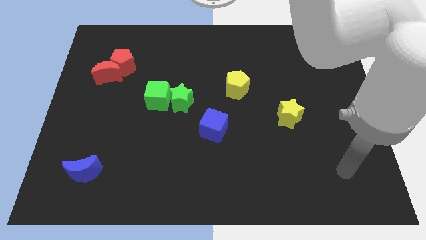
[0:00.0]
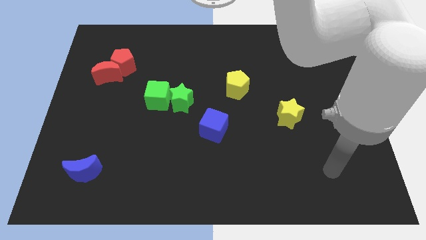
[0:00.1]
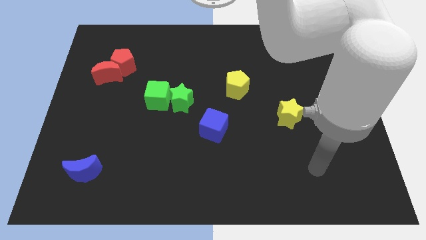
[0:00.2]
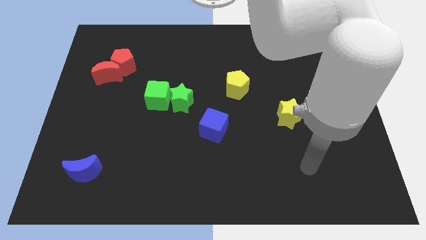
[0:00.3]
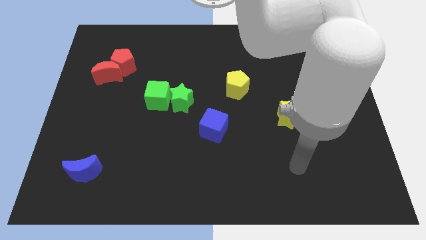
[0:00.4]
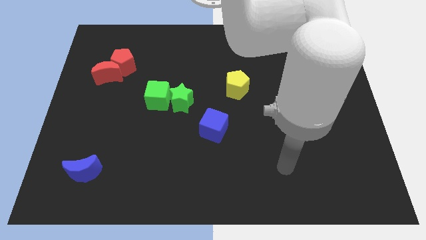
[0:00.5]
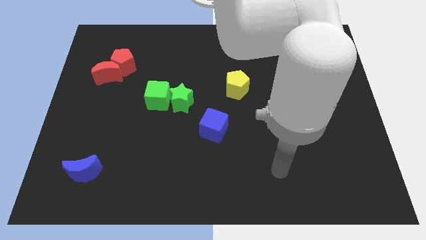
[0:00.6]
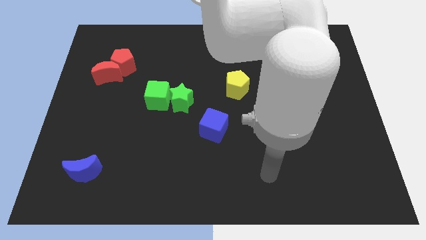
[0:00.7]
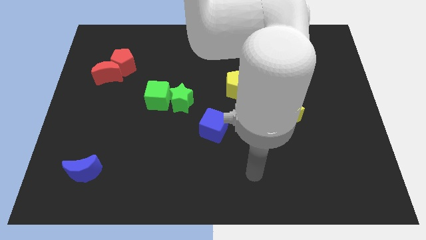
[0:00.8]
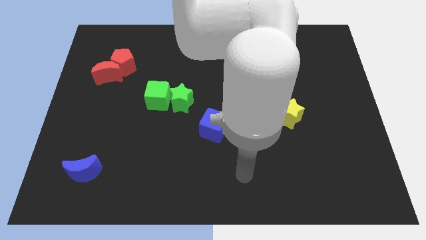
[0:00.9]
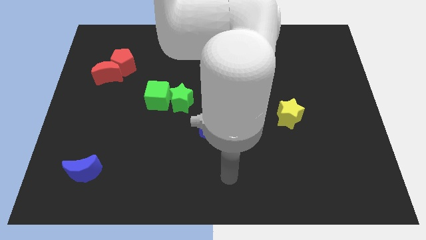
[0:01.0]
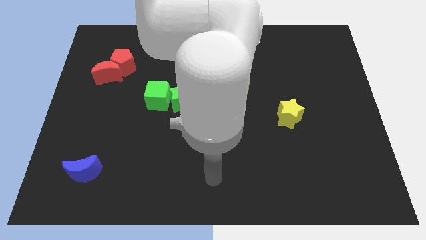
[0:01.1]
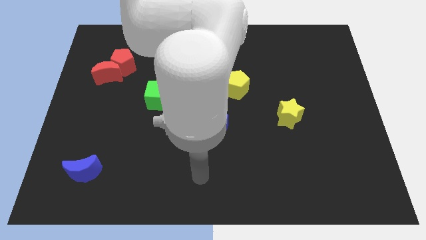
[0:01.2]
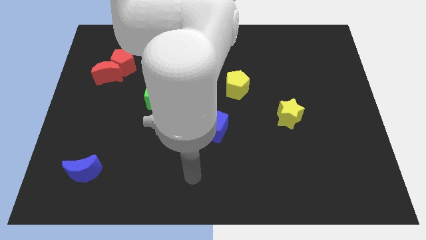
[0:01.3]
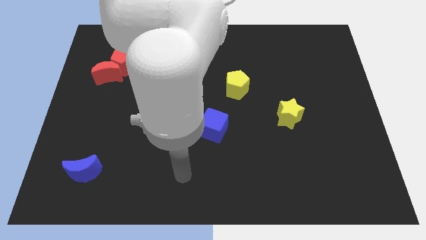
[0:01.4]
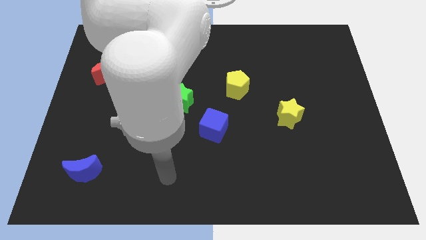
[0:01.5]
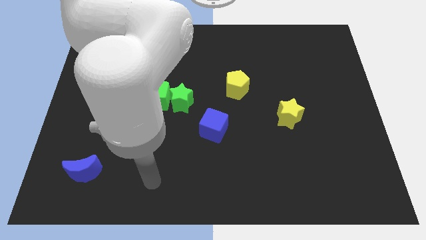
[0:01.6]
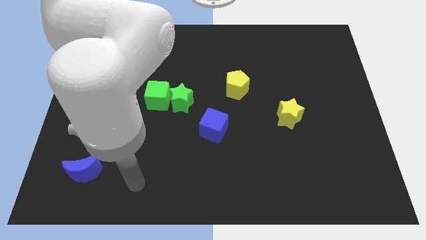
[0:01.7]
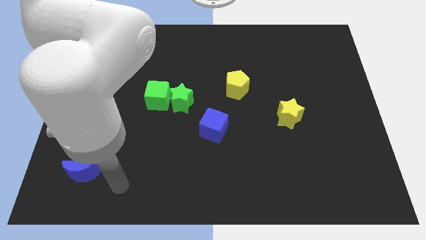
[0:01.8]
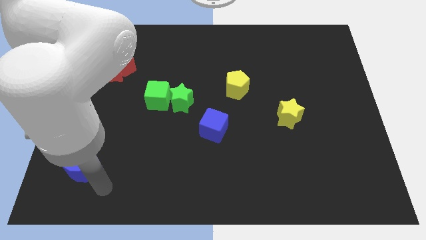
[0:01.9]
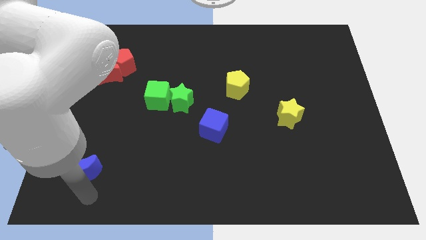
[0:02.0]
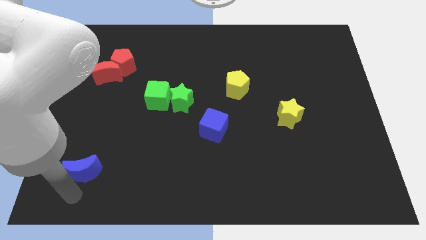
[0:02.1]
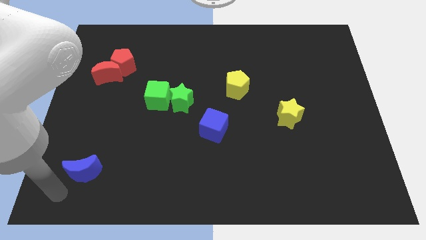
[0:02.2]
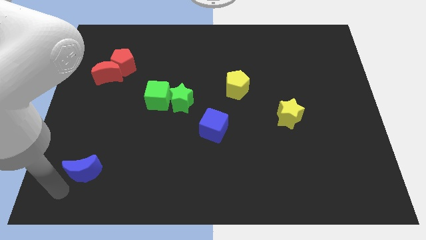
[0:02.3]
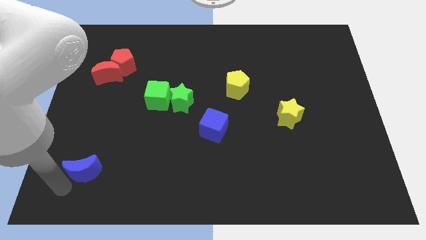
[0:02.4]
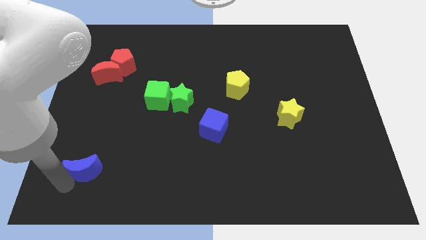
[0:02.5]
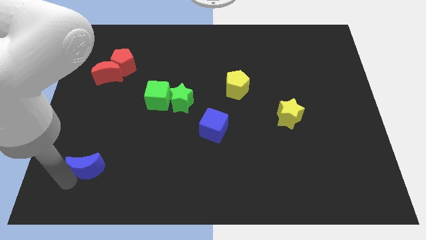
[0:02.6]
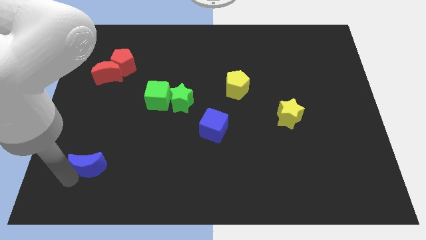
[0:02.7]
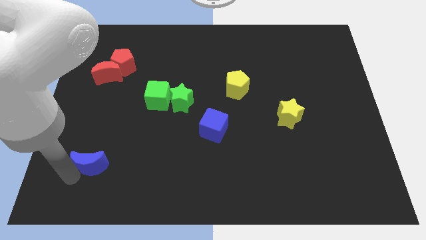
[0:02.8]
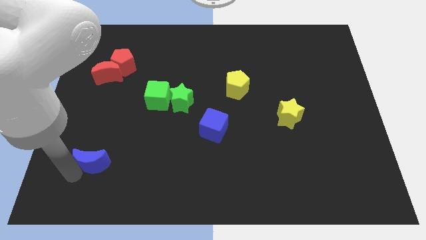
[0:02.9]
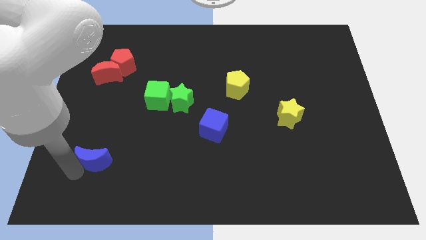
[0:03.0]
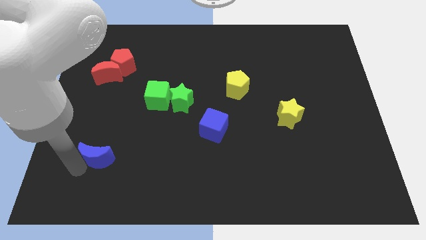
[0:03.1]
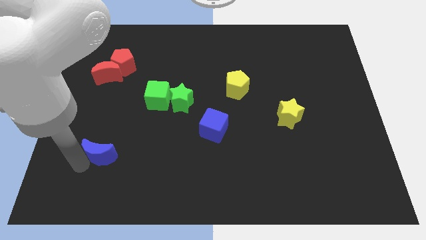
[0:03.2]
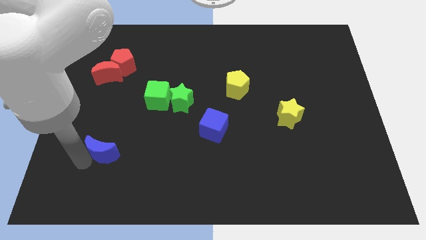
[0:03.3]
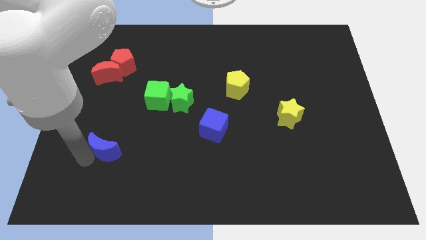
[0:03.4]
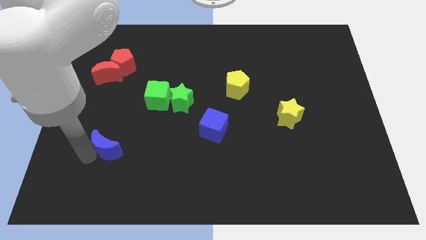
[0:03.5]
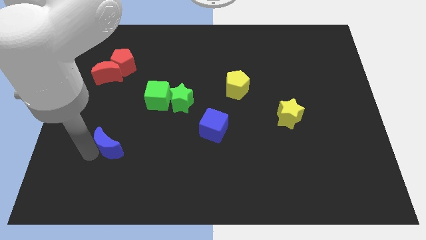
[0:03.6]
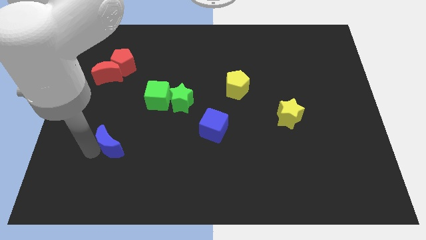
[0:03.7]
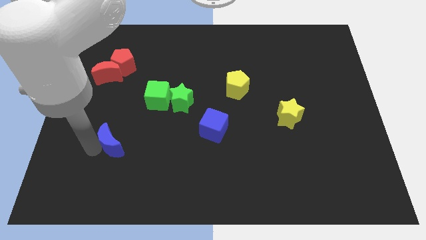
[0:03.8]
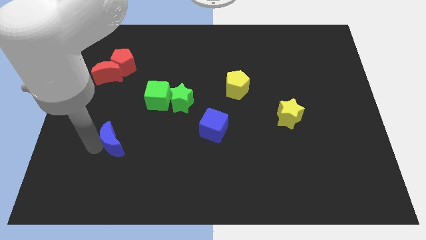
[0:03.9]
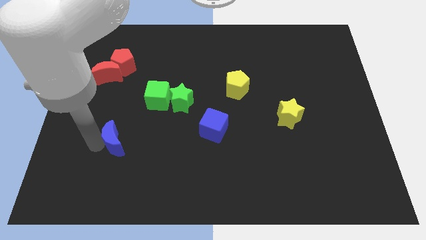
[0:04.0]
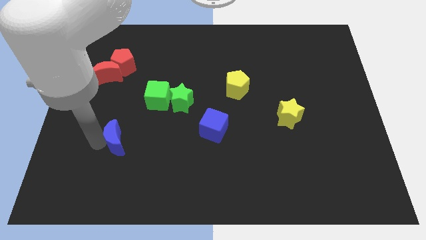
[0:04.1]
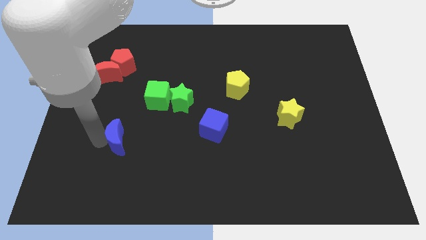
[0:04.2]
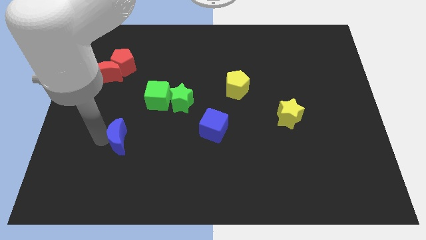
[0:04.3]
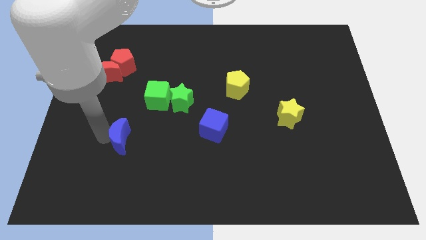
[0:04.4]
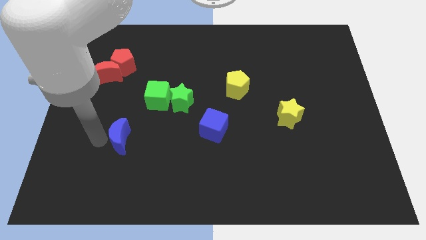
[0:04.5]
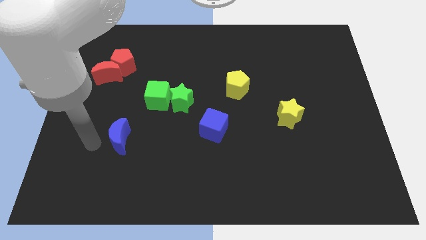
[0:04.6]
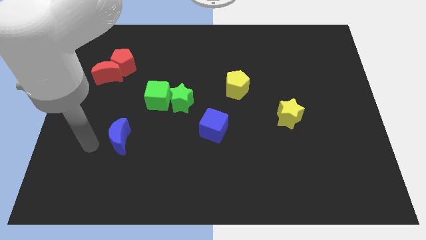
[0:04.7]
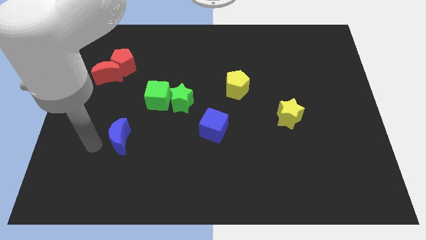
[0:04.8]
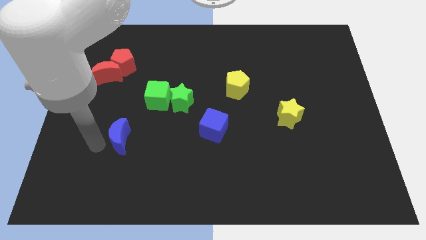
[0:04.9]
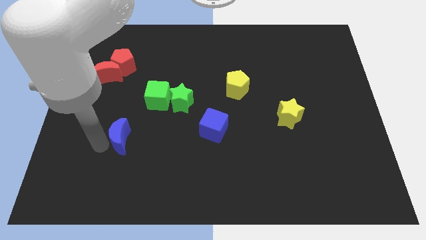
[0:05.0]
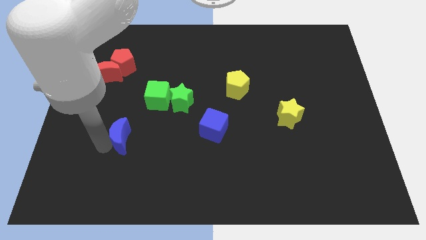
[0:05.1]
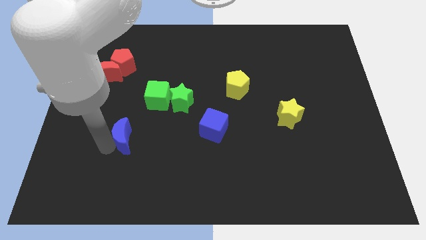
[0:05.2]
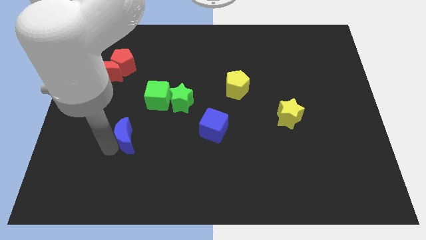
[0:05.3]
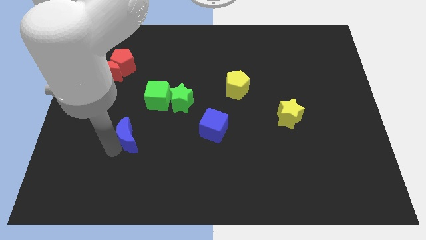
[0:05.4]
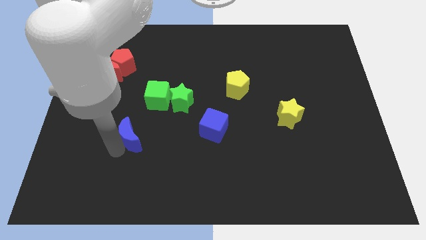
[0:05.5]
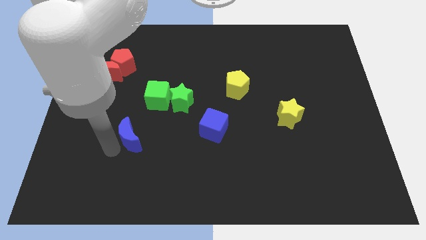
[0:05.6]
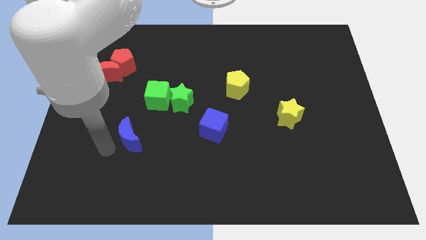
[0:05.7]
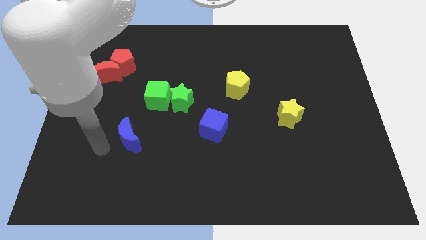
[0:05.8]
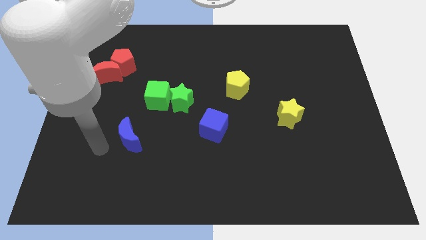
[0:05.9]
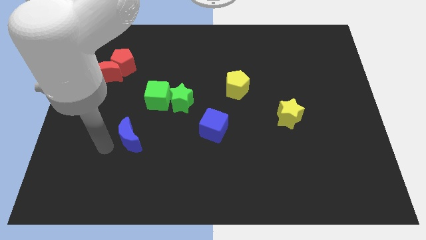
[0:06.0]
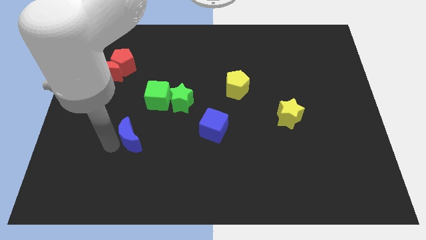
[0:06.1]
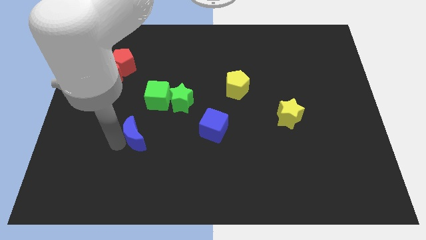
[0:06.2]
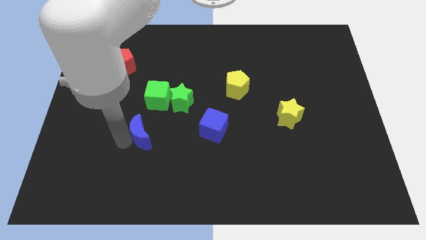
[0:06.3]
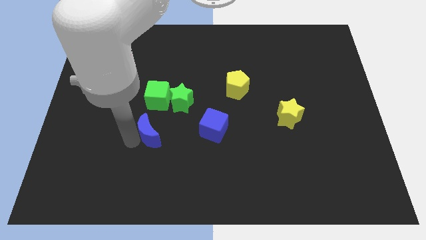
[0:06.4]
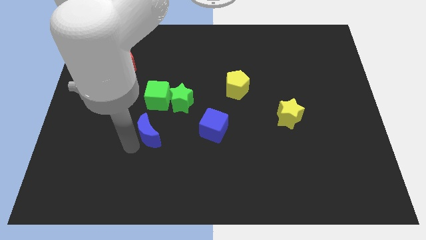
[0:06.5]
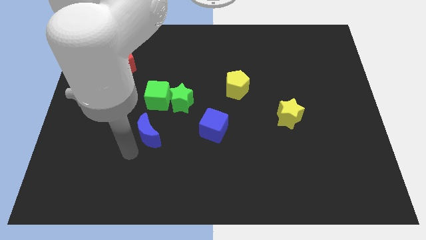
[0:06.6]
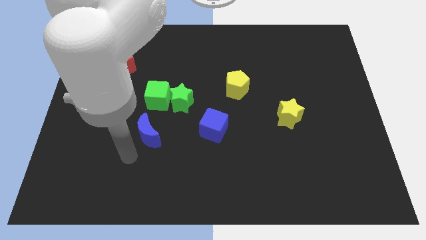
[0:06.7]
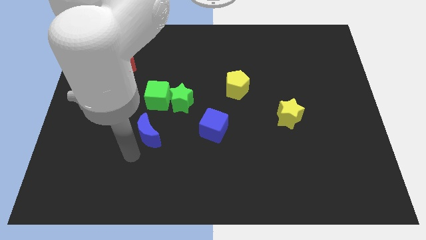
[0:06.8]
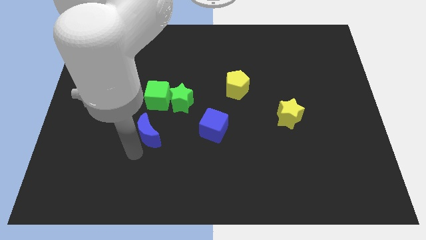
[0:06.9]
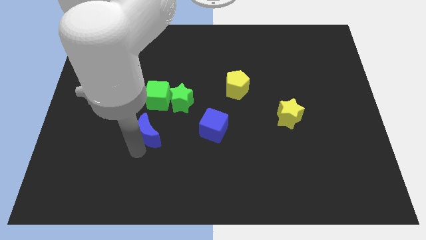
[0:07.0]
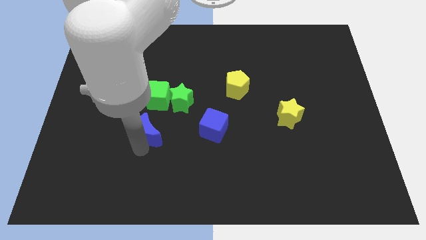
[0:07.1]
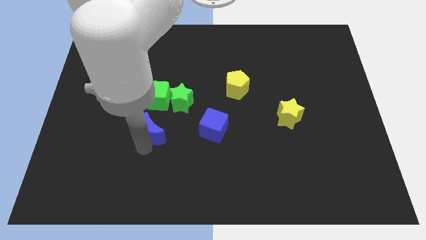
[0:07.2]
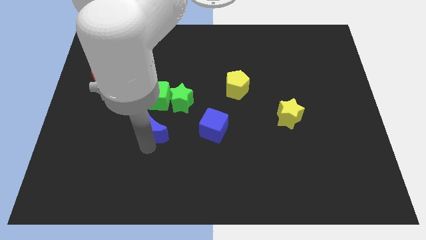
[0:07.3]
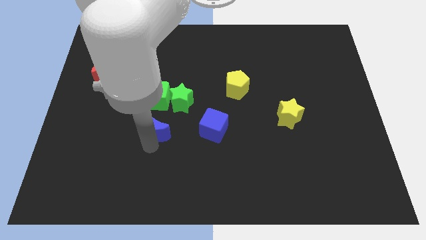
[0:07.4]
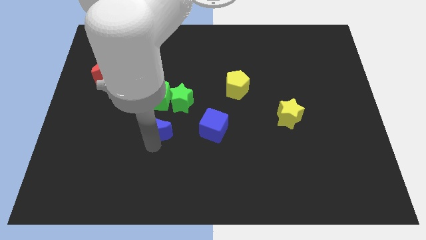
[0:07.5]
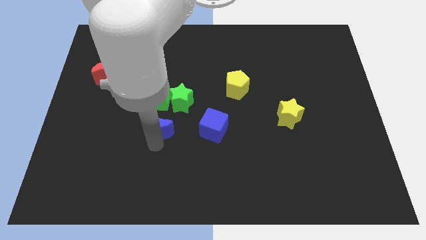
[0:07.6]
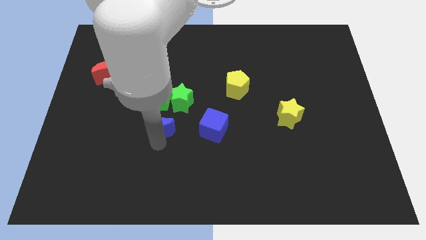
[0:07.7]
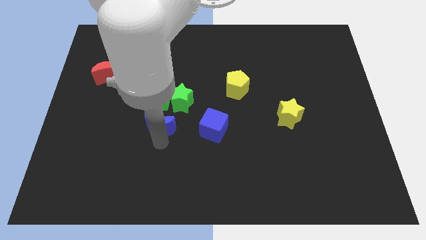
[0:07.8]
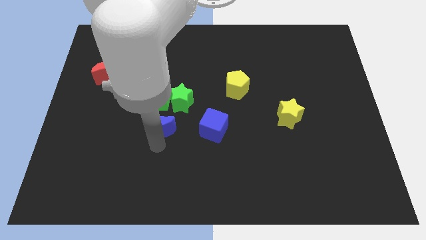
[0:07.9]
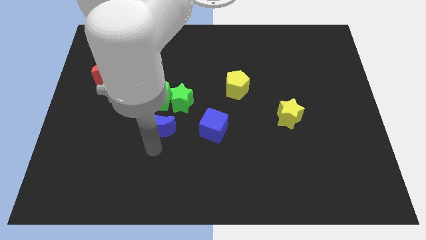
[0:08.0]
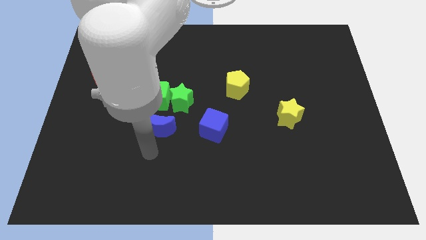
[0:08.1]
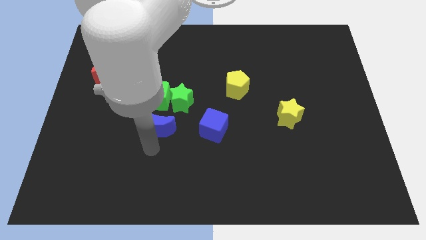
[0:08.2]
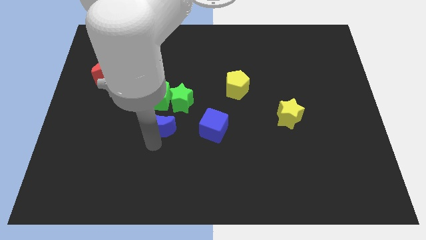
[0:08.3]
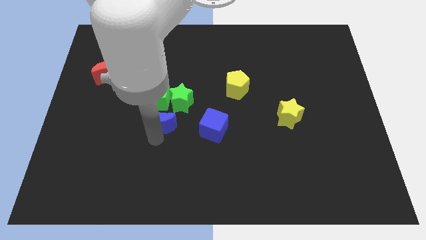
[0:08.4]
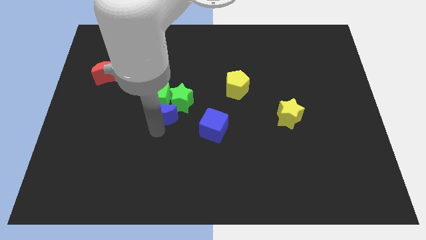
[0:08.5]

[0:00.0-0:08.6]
slide the blue moon close to the green star
